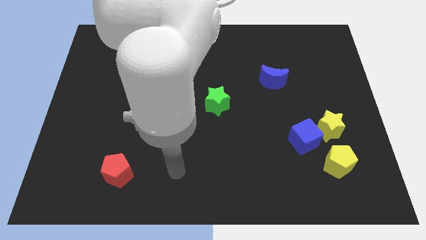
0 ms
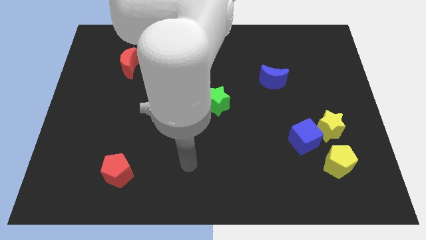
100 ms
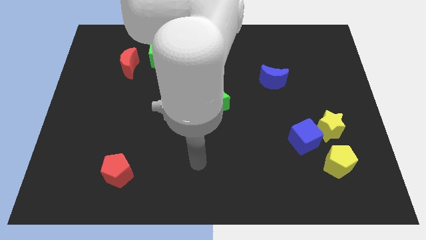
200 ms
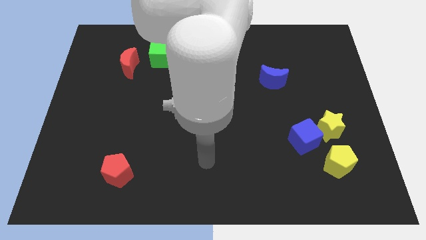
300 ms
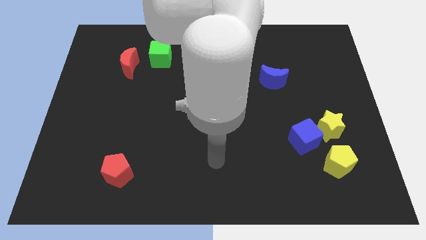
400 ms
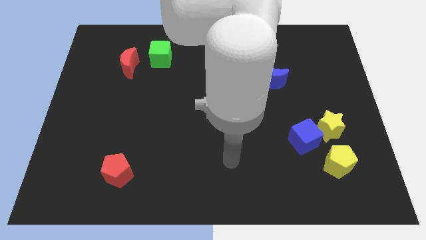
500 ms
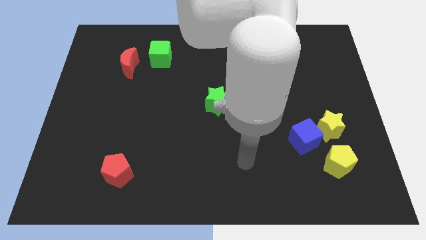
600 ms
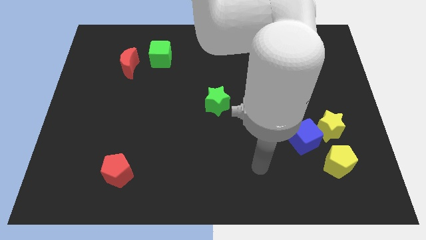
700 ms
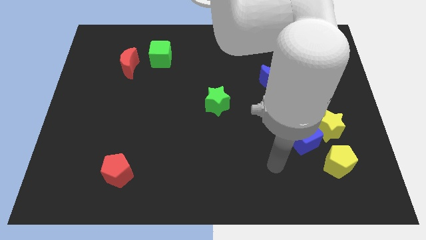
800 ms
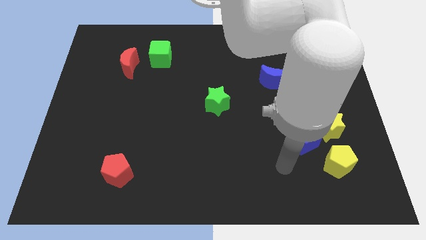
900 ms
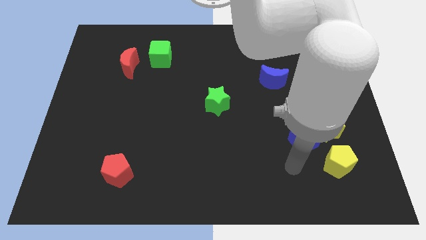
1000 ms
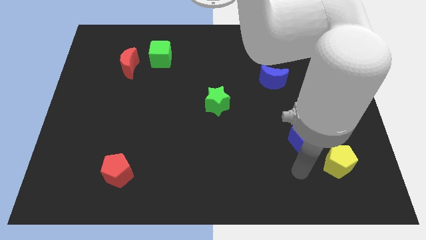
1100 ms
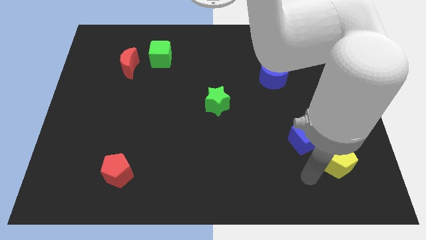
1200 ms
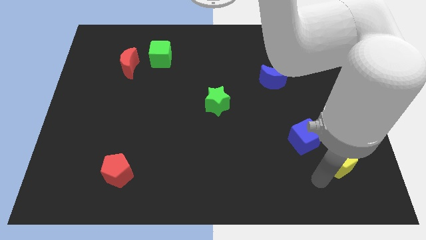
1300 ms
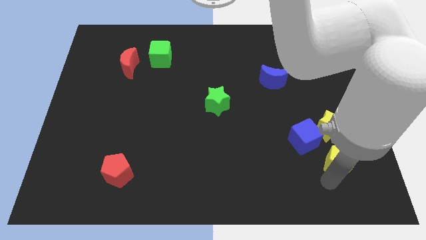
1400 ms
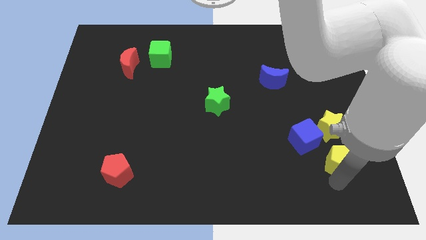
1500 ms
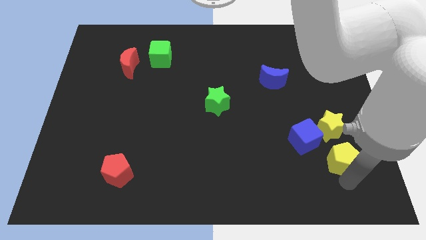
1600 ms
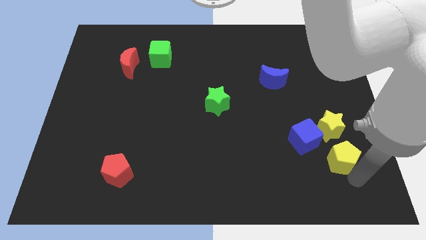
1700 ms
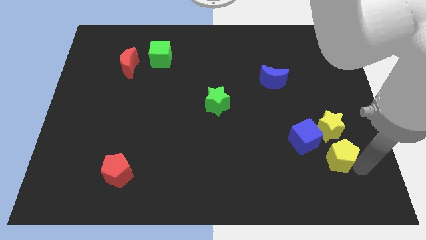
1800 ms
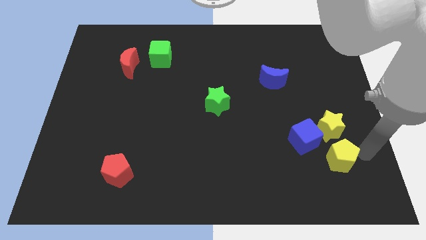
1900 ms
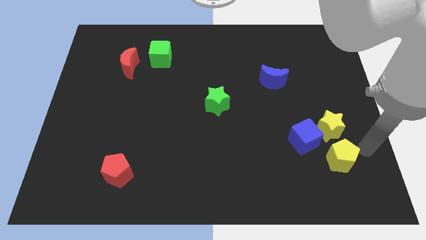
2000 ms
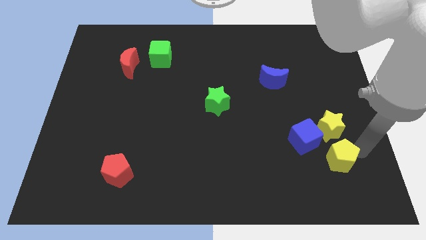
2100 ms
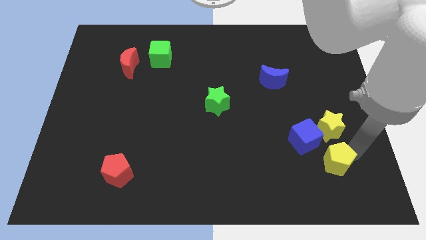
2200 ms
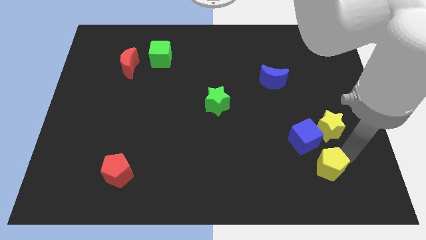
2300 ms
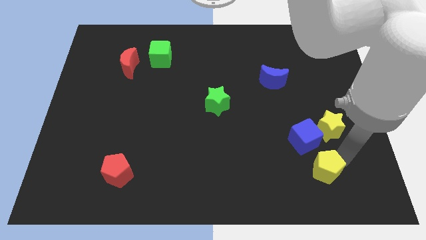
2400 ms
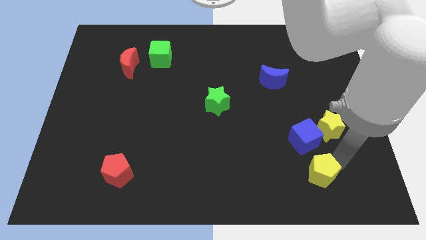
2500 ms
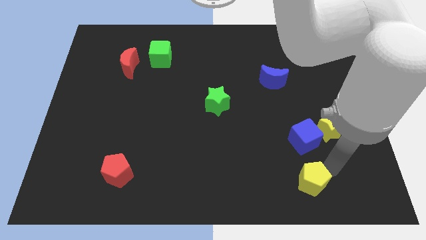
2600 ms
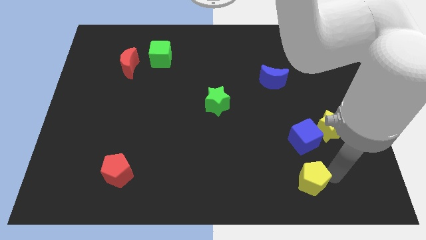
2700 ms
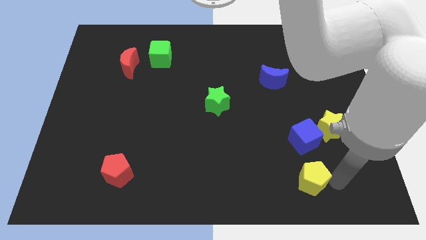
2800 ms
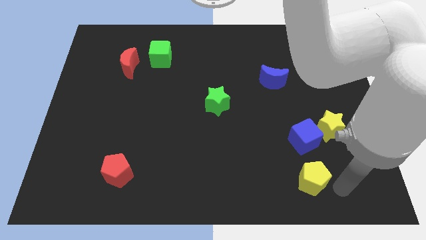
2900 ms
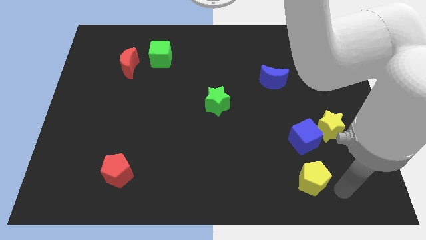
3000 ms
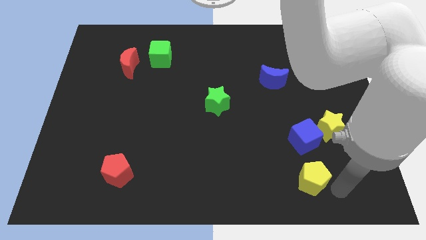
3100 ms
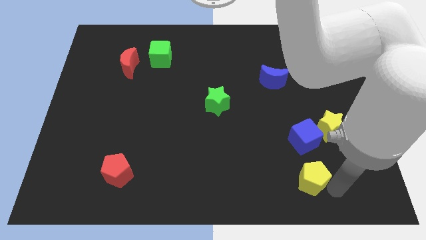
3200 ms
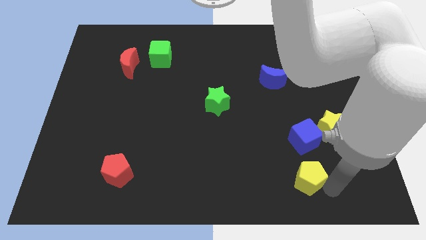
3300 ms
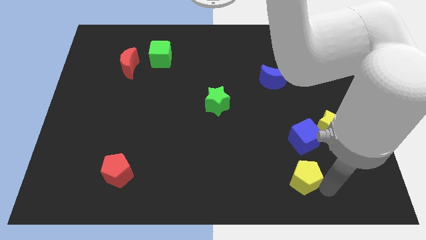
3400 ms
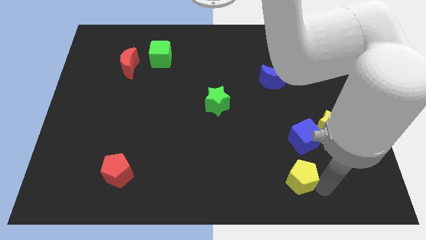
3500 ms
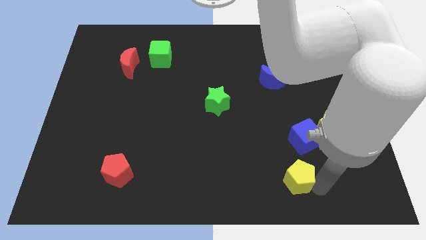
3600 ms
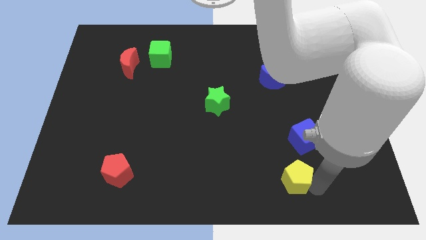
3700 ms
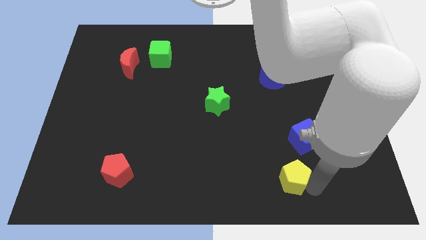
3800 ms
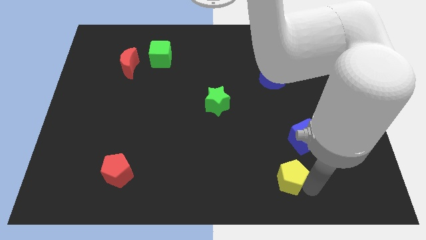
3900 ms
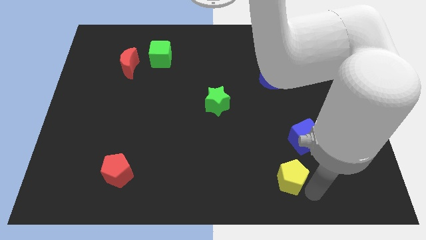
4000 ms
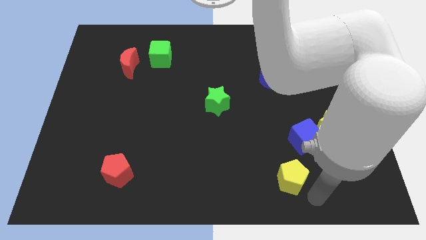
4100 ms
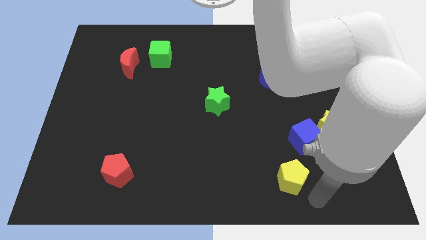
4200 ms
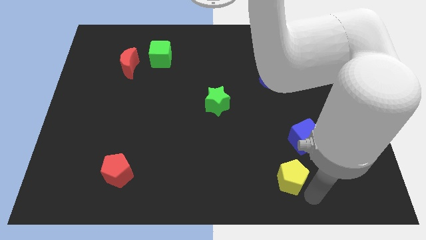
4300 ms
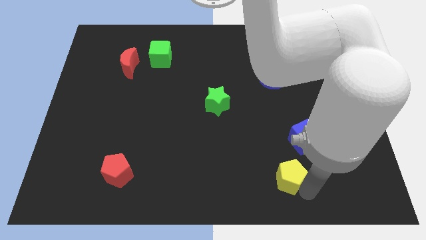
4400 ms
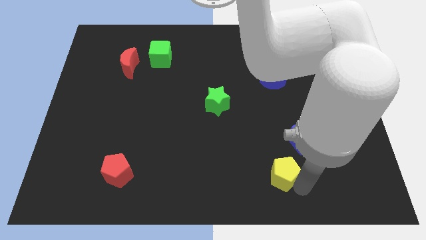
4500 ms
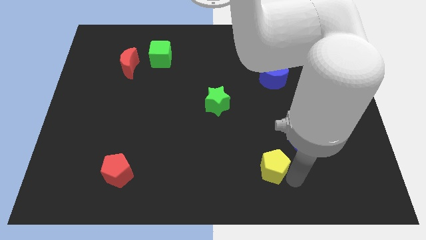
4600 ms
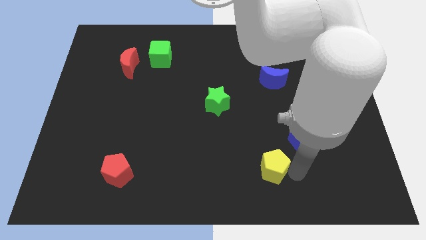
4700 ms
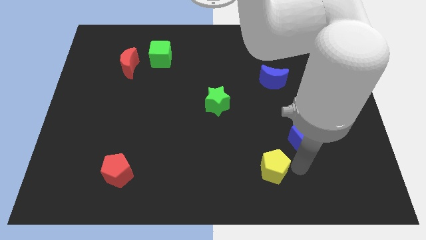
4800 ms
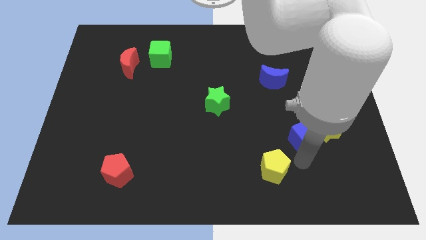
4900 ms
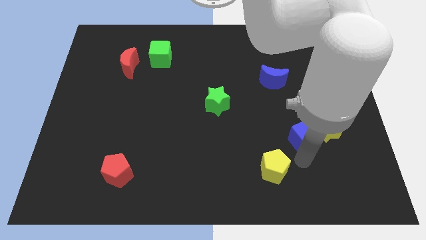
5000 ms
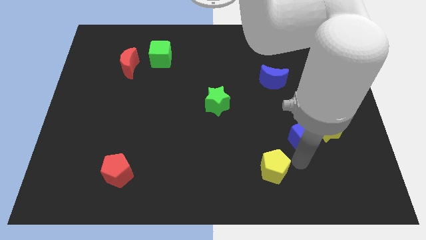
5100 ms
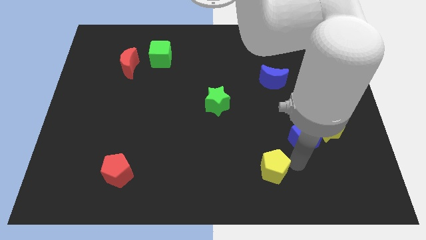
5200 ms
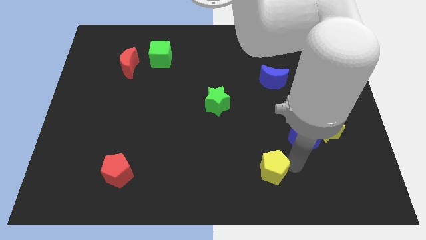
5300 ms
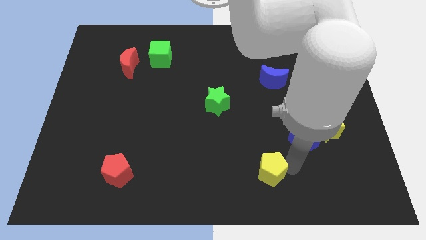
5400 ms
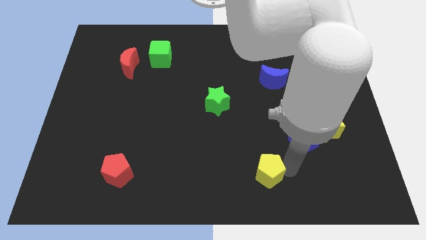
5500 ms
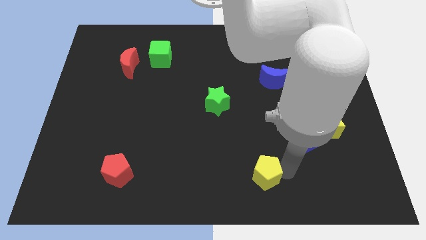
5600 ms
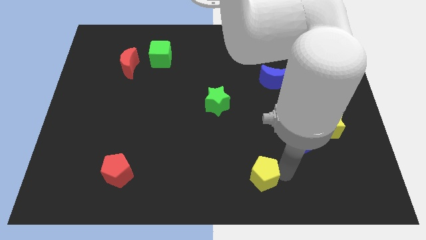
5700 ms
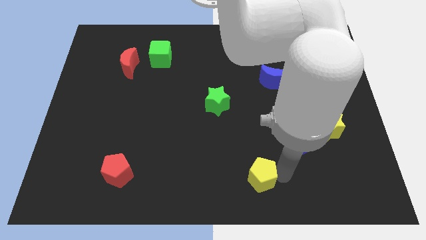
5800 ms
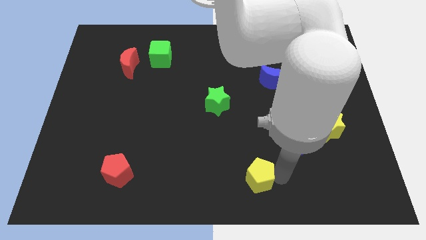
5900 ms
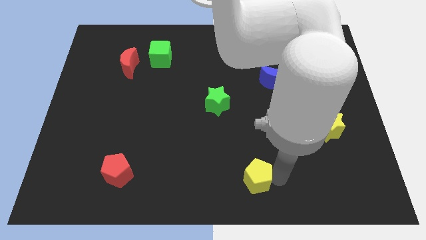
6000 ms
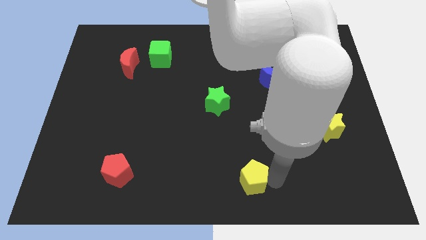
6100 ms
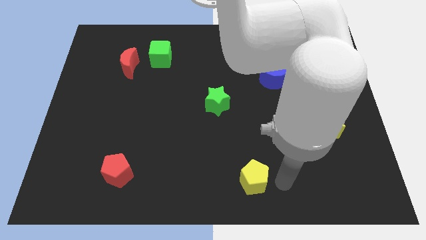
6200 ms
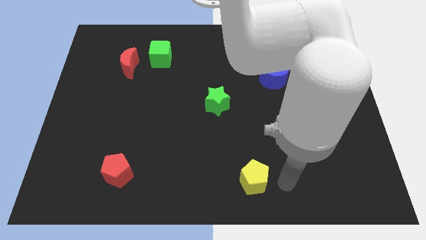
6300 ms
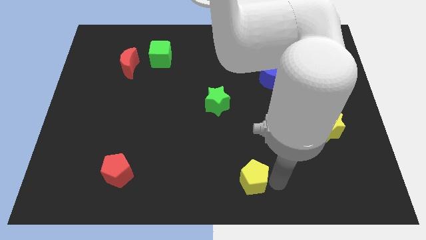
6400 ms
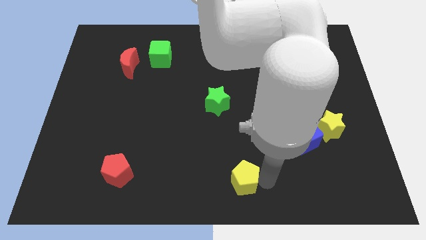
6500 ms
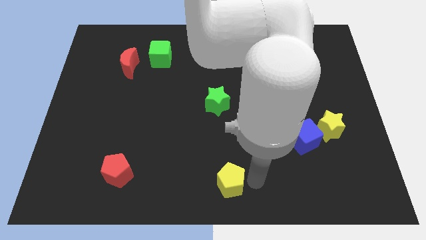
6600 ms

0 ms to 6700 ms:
move the yellow pentagon to the left
